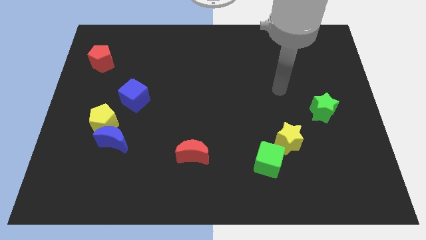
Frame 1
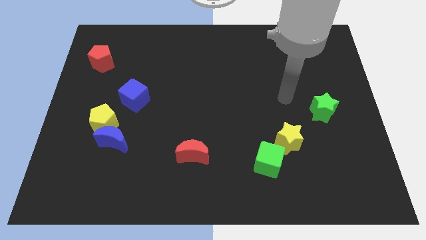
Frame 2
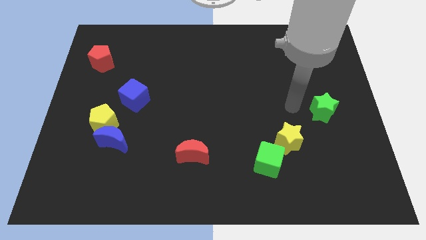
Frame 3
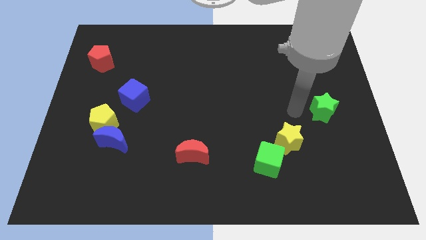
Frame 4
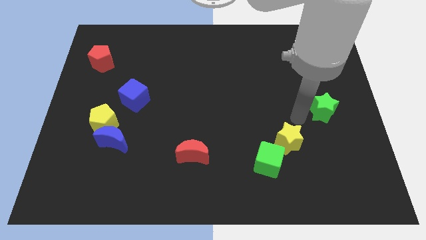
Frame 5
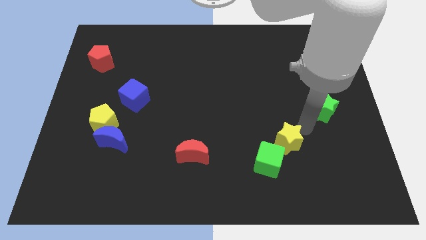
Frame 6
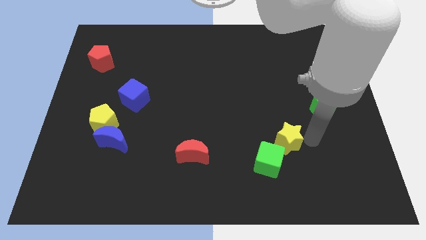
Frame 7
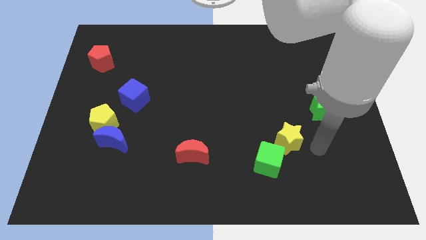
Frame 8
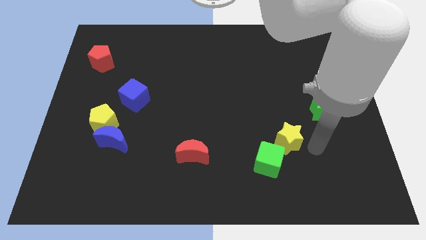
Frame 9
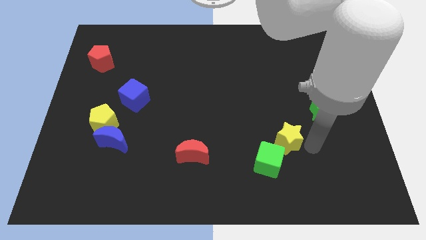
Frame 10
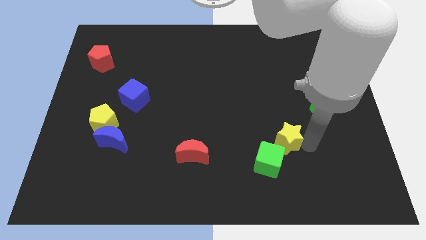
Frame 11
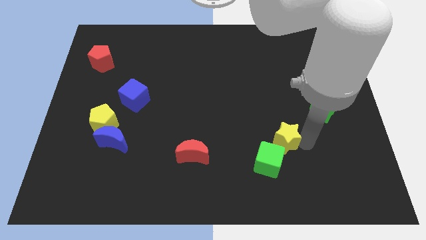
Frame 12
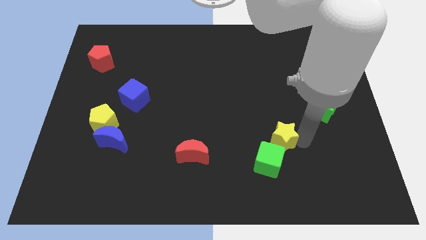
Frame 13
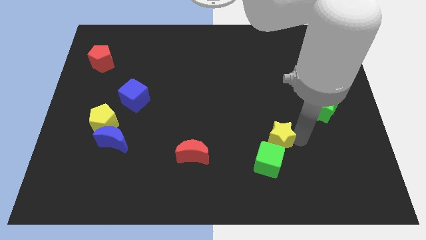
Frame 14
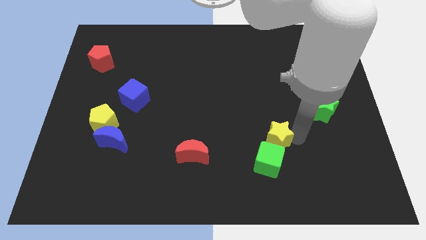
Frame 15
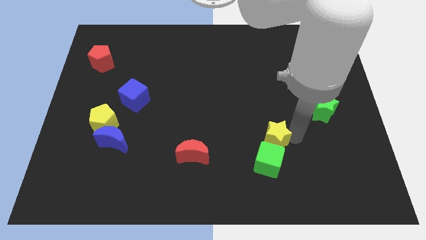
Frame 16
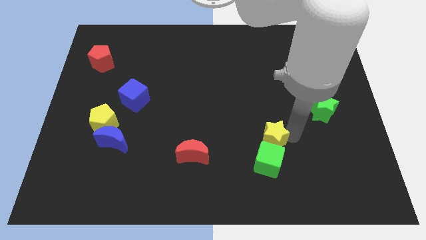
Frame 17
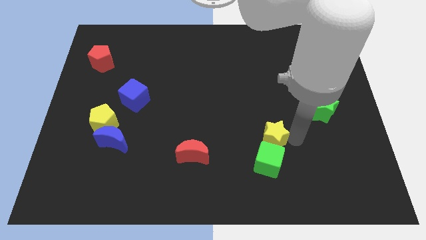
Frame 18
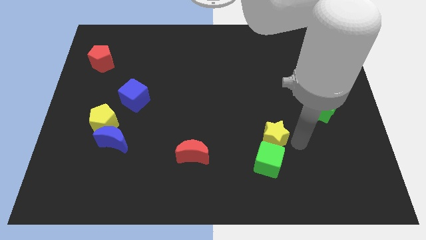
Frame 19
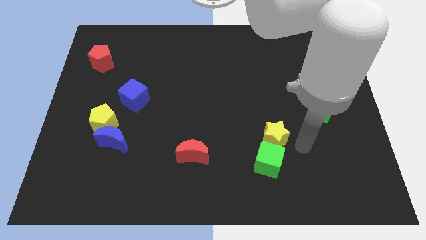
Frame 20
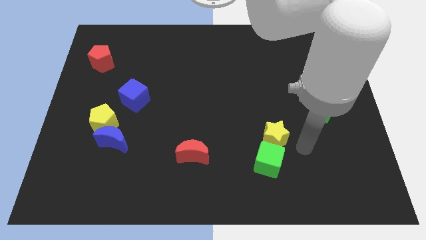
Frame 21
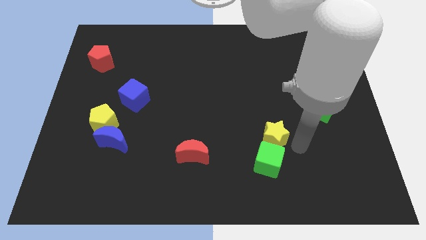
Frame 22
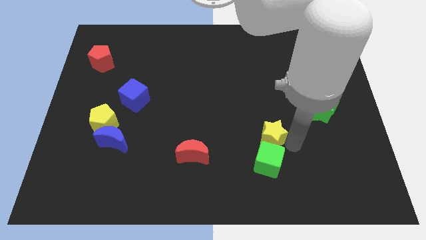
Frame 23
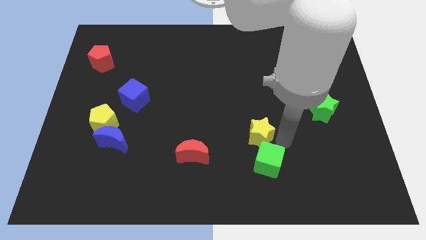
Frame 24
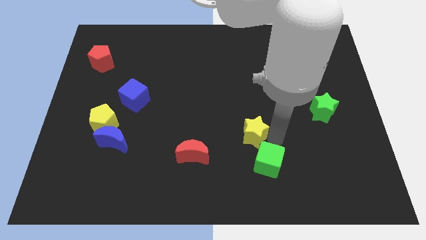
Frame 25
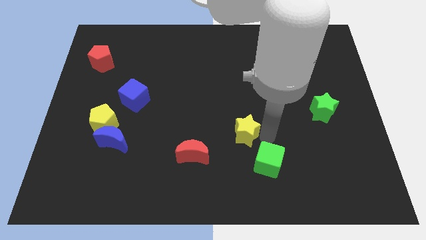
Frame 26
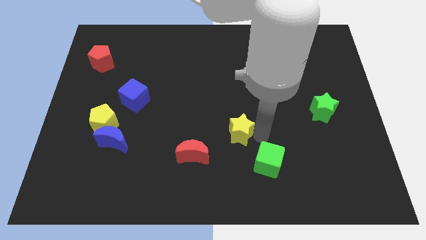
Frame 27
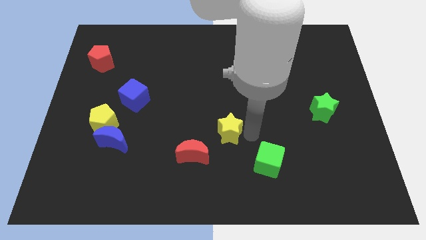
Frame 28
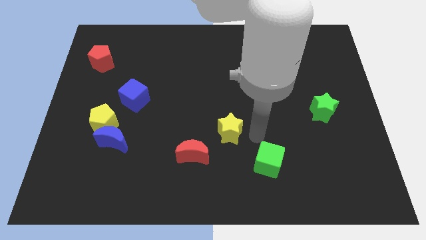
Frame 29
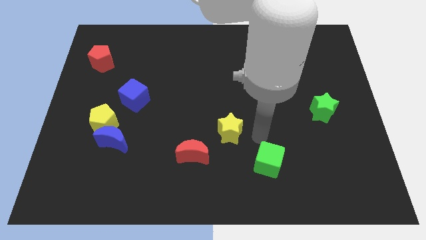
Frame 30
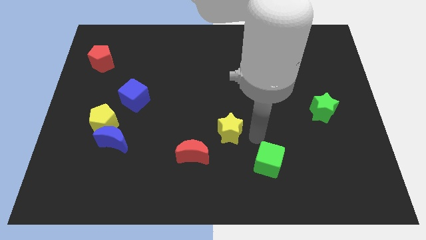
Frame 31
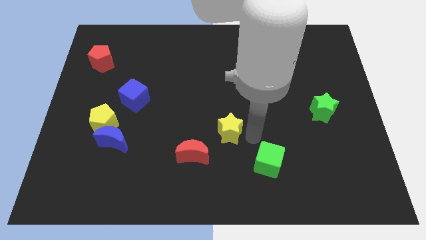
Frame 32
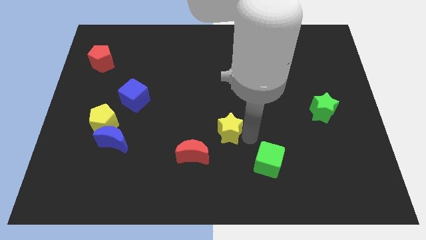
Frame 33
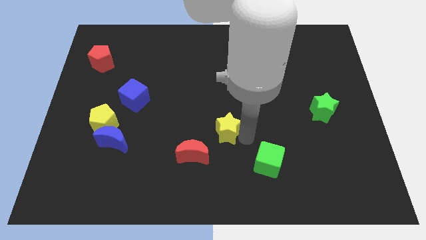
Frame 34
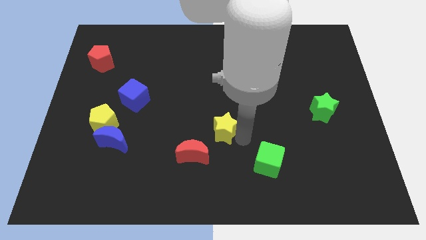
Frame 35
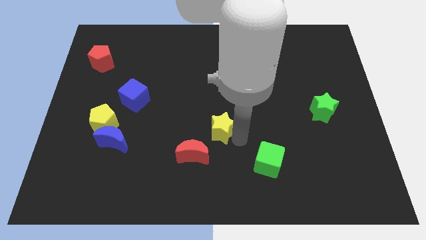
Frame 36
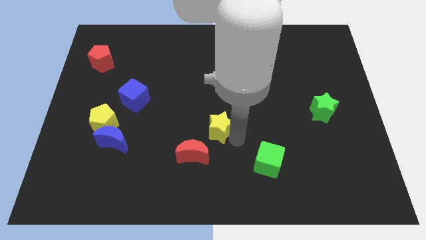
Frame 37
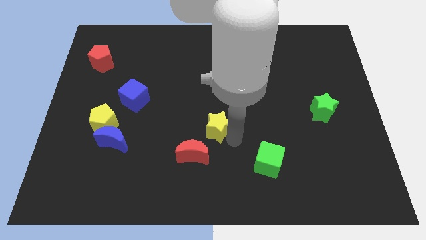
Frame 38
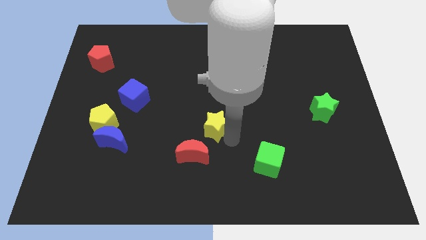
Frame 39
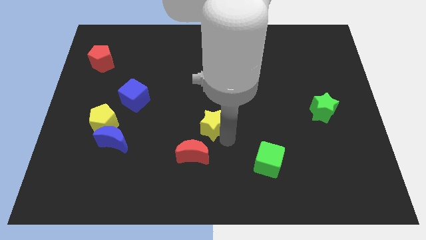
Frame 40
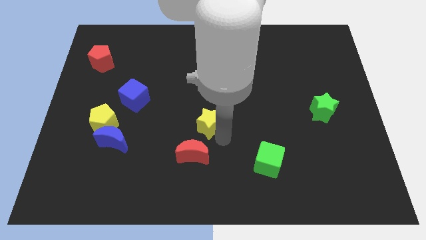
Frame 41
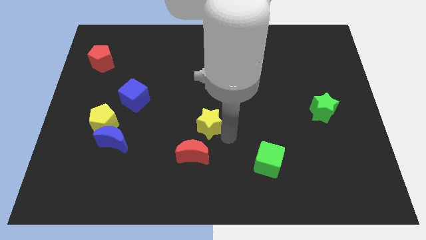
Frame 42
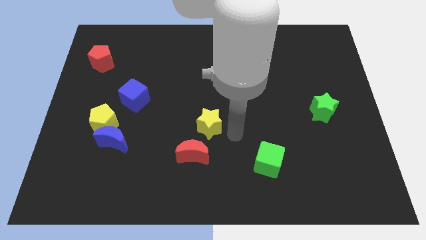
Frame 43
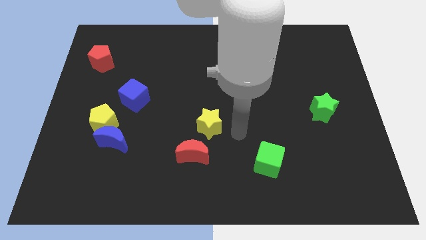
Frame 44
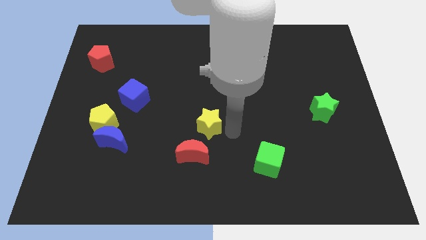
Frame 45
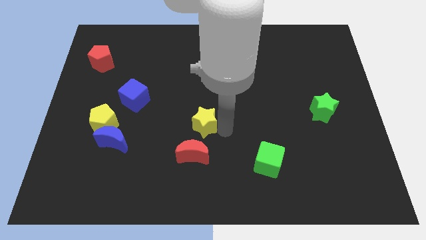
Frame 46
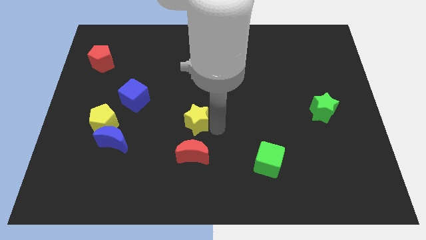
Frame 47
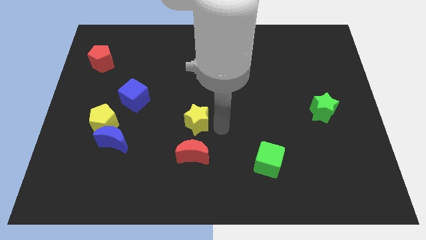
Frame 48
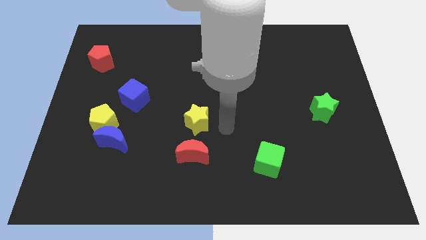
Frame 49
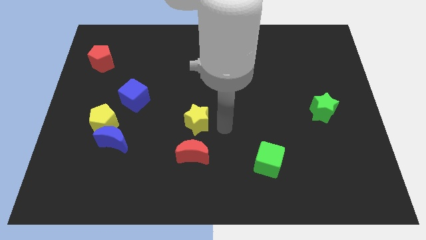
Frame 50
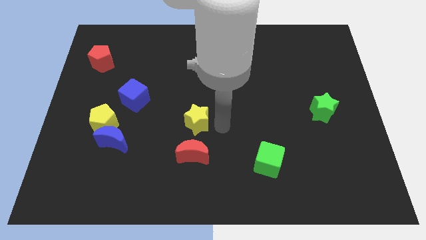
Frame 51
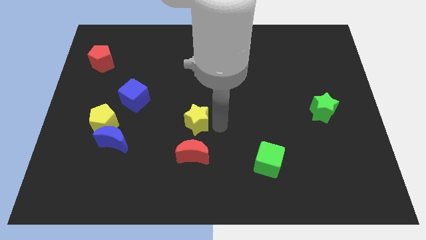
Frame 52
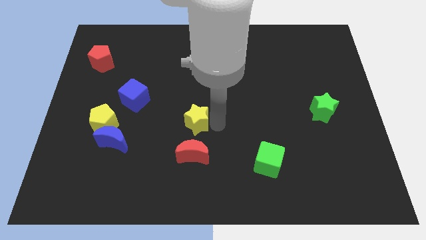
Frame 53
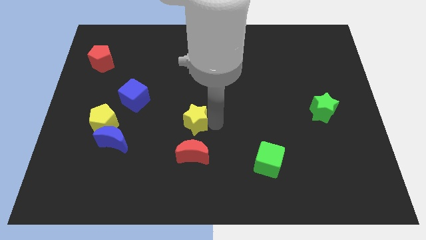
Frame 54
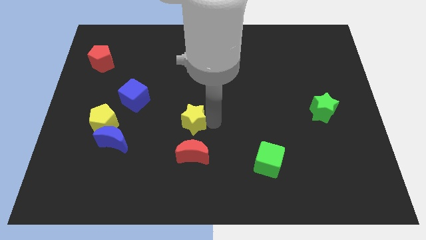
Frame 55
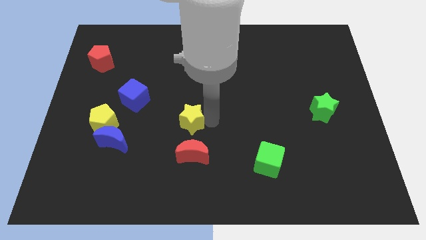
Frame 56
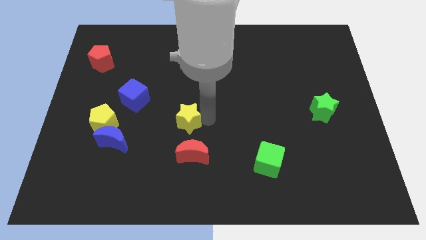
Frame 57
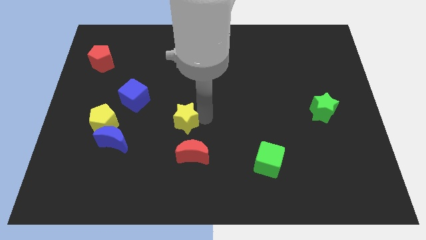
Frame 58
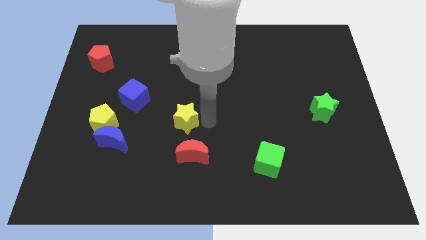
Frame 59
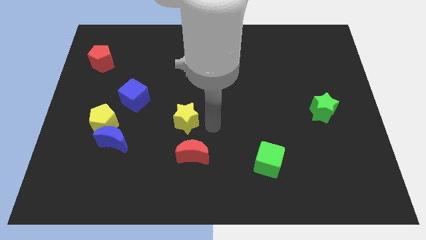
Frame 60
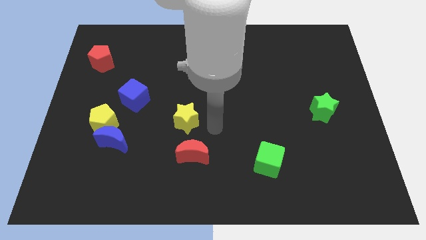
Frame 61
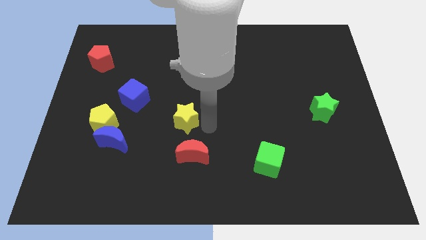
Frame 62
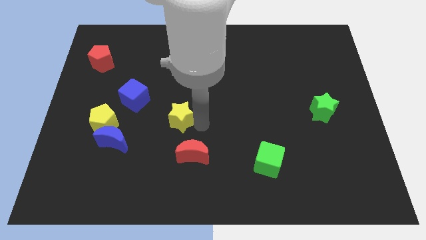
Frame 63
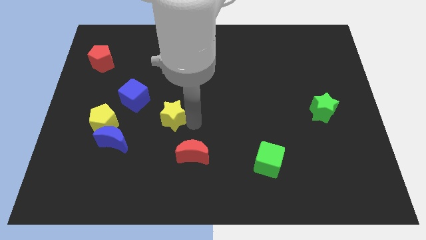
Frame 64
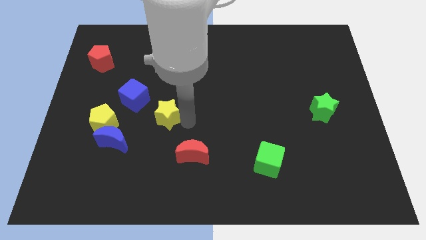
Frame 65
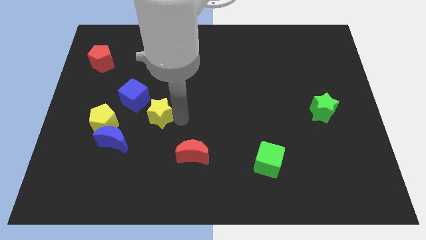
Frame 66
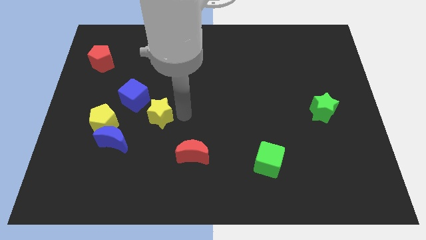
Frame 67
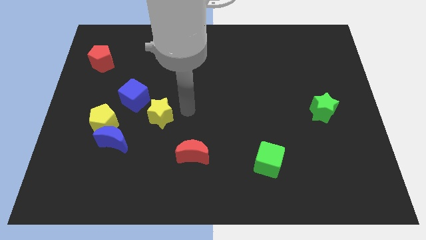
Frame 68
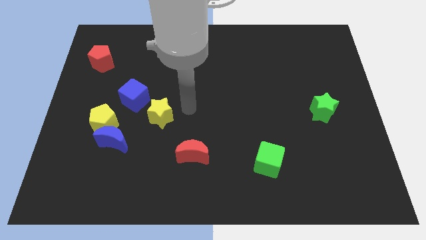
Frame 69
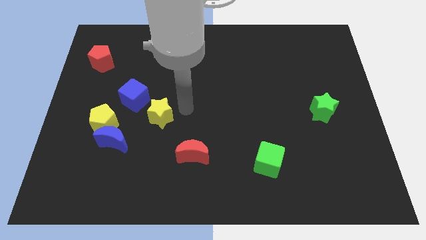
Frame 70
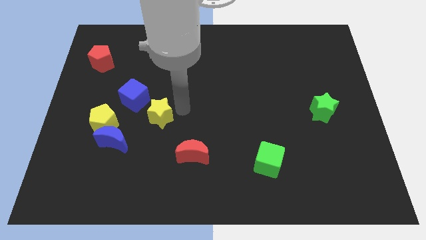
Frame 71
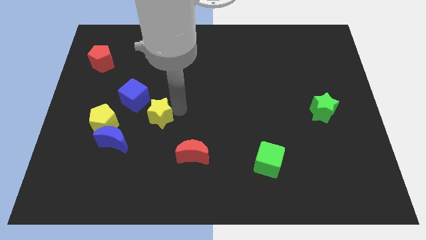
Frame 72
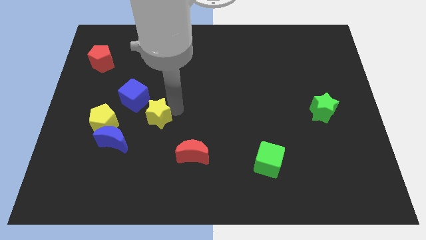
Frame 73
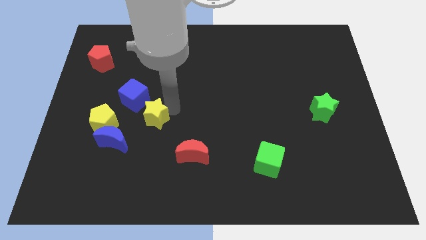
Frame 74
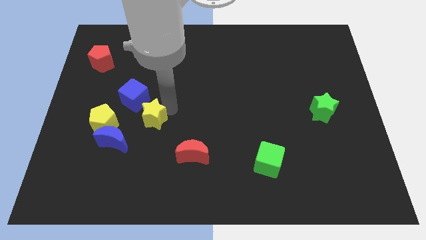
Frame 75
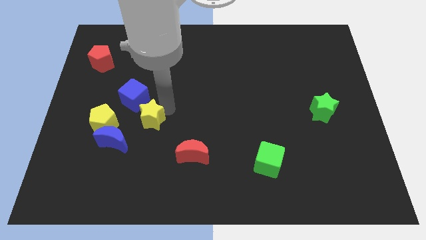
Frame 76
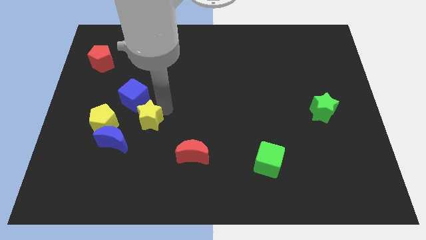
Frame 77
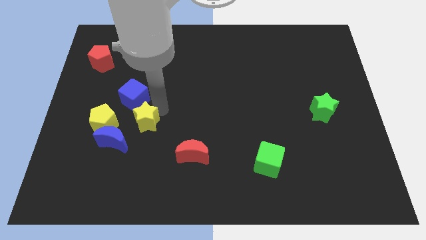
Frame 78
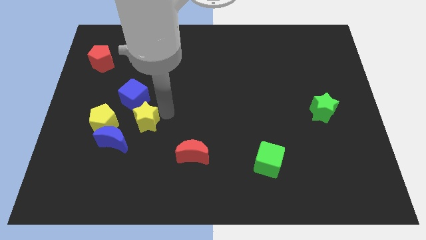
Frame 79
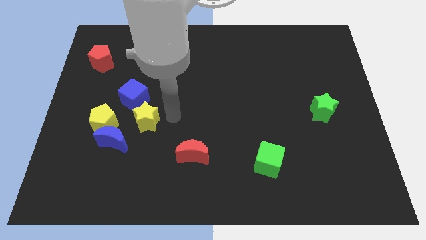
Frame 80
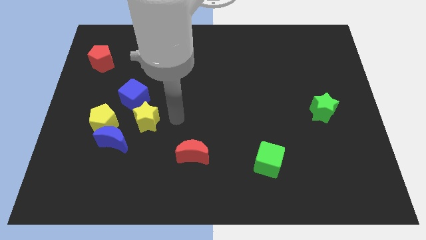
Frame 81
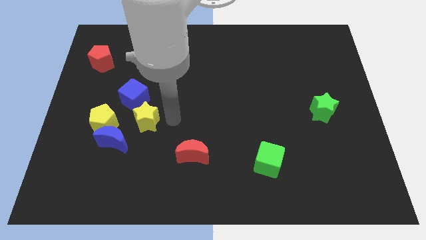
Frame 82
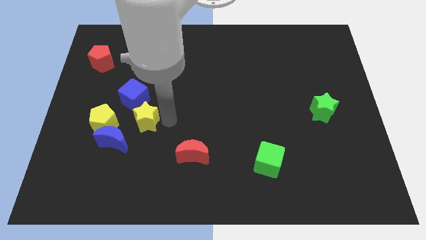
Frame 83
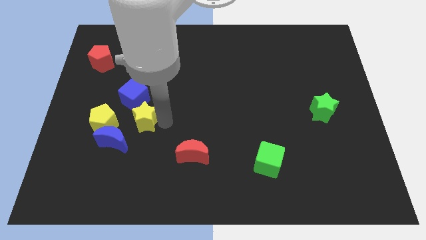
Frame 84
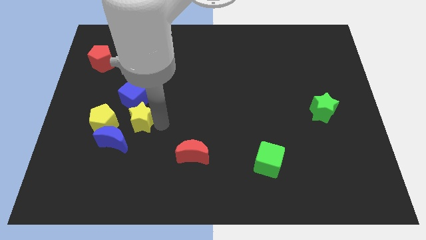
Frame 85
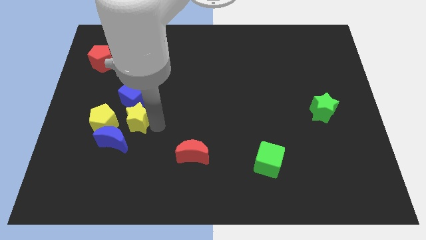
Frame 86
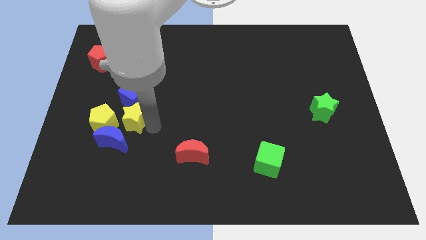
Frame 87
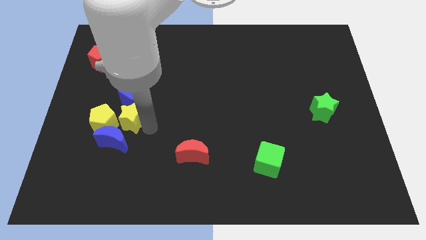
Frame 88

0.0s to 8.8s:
put the yellow star close to the yellow pentagon
